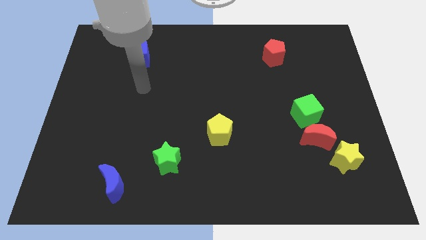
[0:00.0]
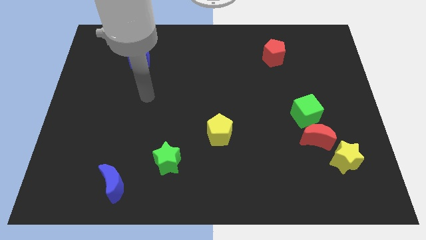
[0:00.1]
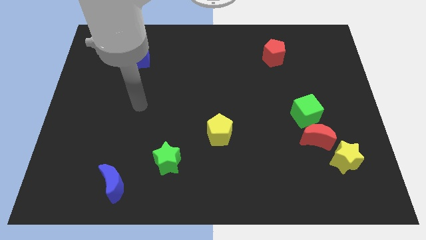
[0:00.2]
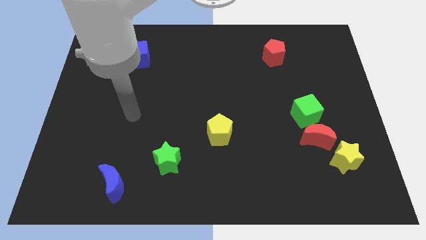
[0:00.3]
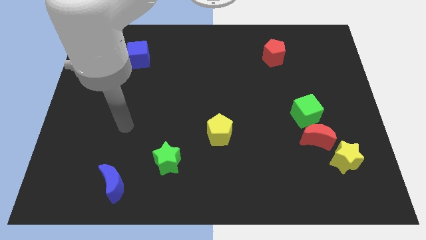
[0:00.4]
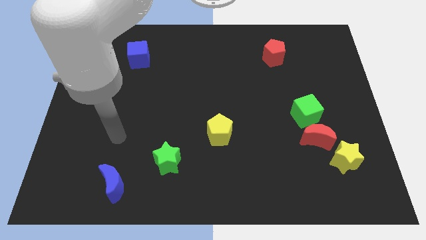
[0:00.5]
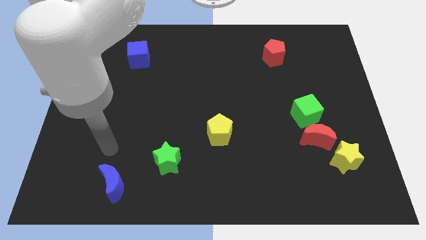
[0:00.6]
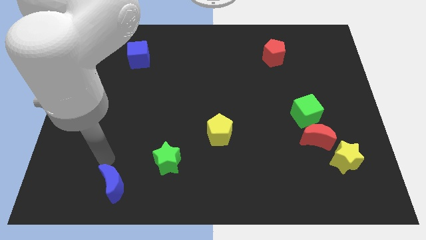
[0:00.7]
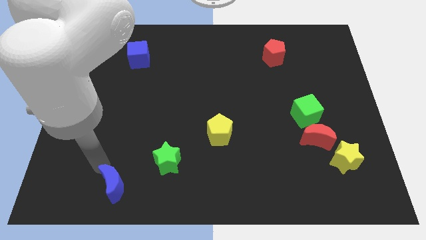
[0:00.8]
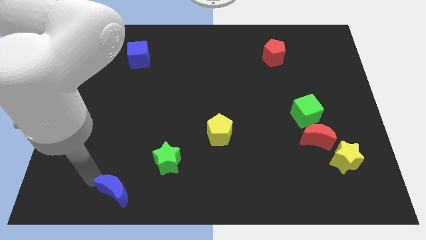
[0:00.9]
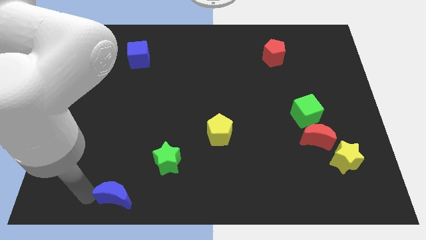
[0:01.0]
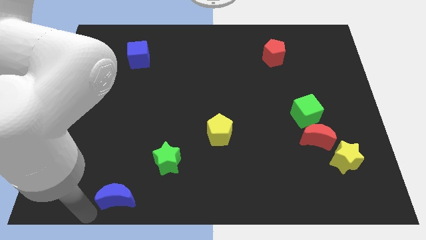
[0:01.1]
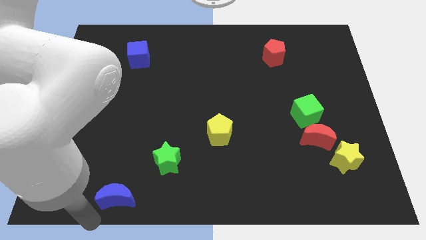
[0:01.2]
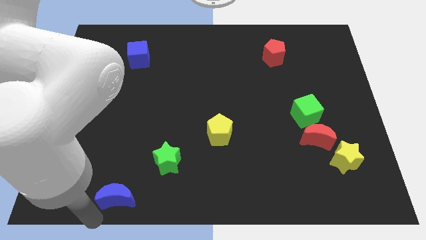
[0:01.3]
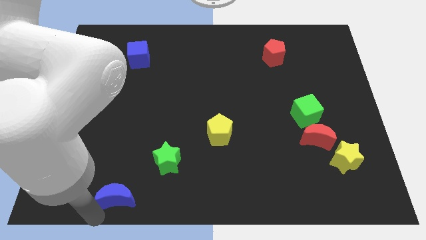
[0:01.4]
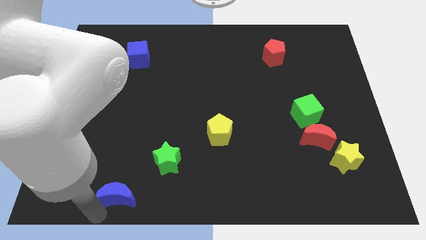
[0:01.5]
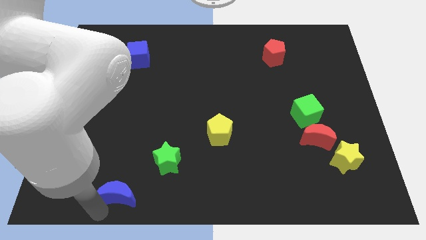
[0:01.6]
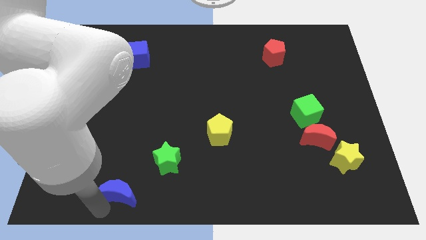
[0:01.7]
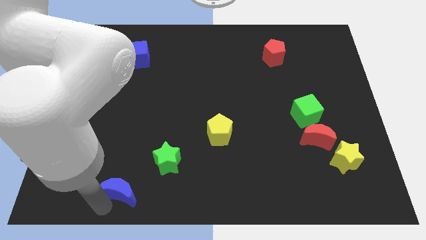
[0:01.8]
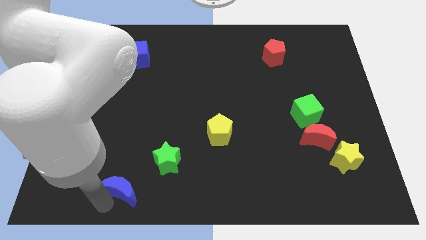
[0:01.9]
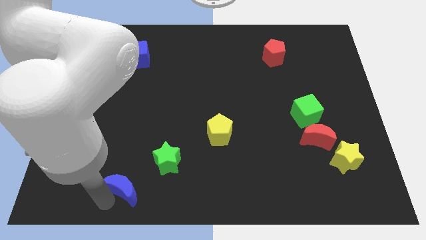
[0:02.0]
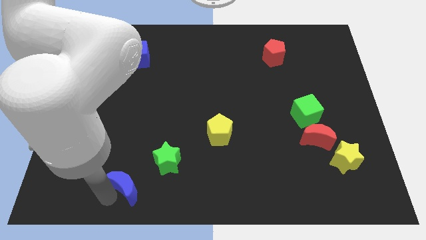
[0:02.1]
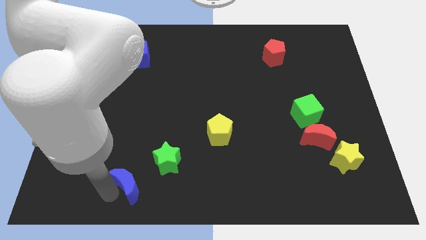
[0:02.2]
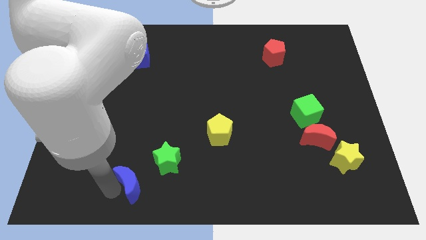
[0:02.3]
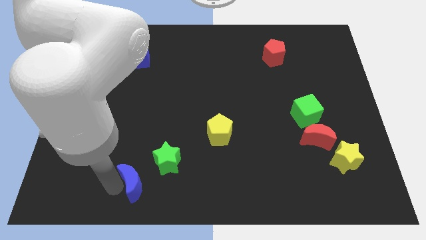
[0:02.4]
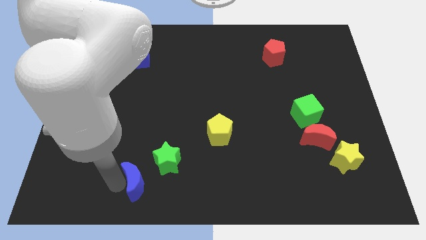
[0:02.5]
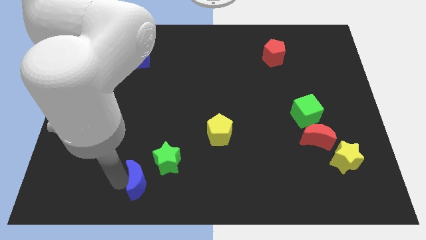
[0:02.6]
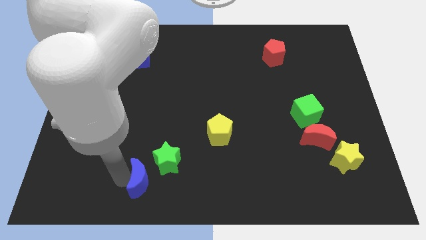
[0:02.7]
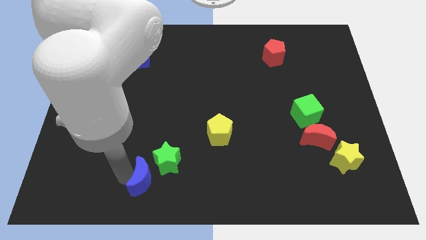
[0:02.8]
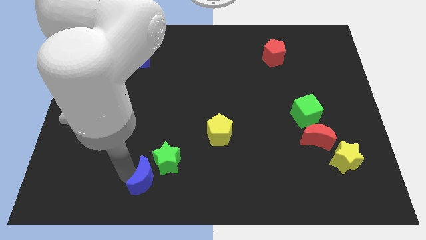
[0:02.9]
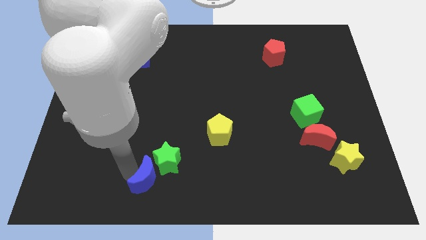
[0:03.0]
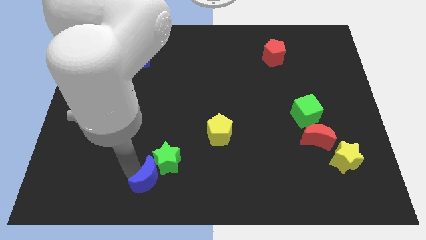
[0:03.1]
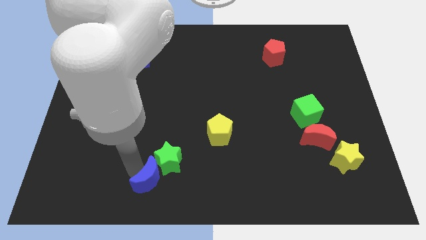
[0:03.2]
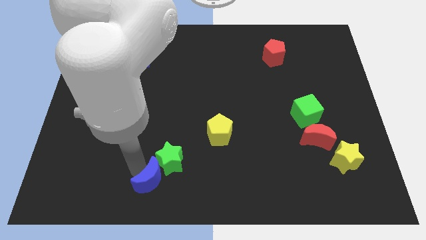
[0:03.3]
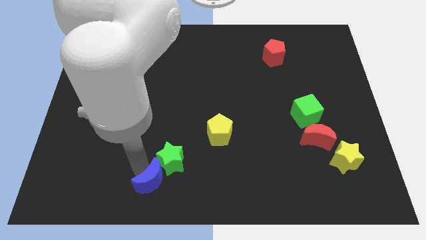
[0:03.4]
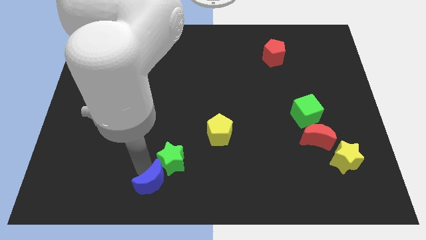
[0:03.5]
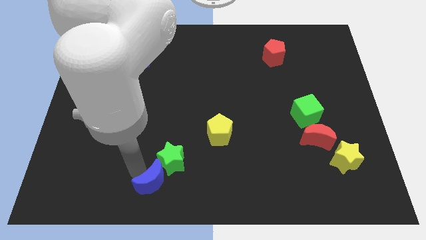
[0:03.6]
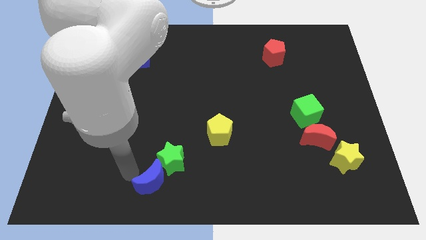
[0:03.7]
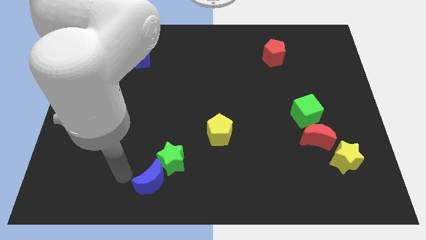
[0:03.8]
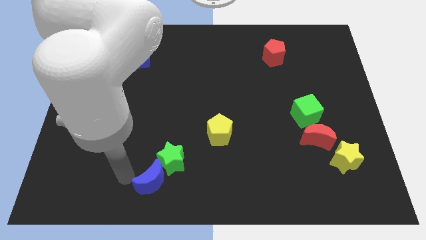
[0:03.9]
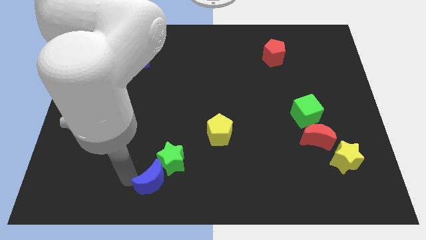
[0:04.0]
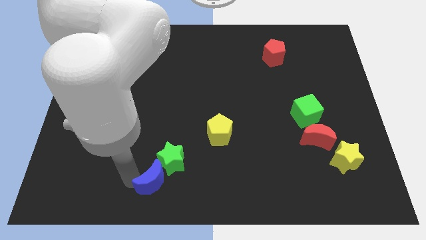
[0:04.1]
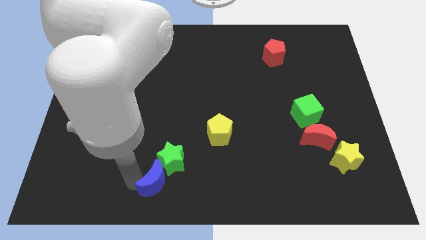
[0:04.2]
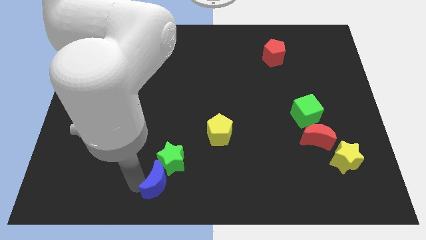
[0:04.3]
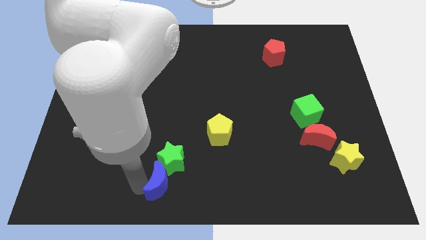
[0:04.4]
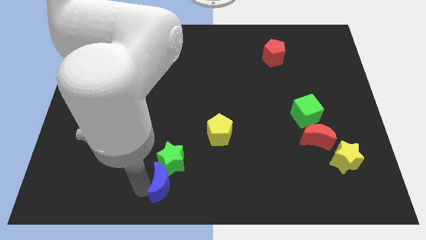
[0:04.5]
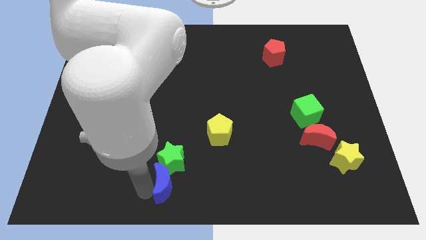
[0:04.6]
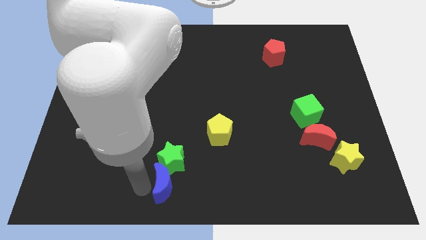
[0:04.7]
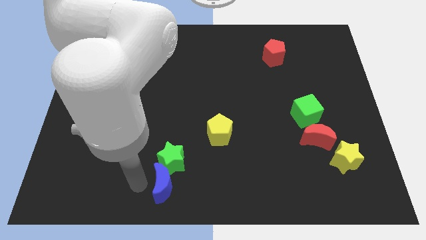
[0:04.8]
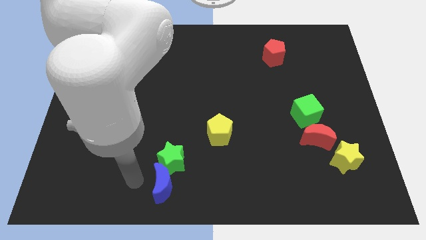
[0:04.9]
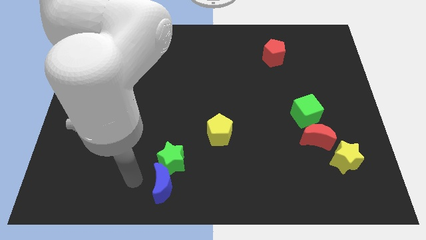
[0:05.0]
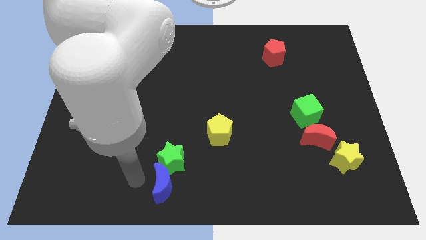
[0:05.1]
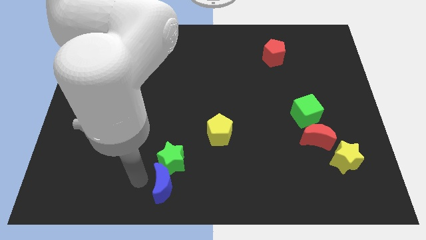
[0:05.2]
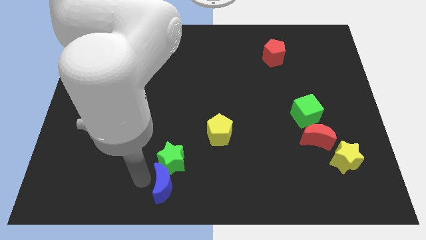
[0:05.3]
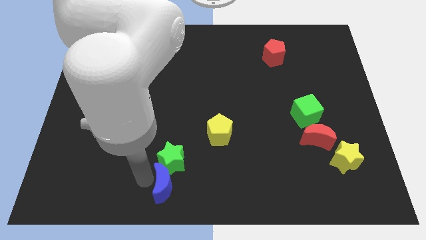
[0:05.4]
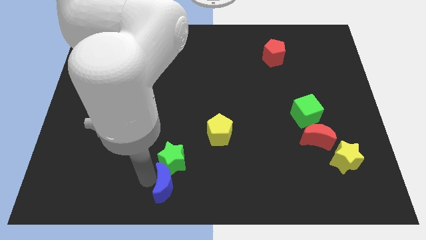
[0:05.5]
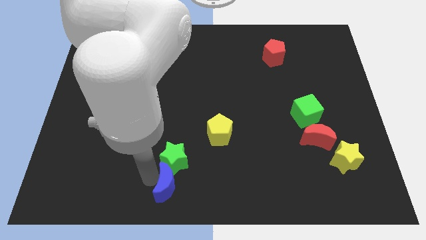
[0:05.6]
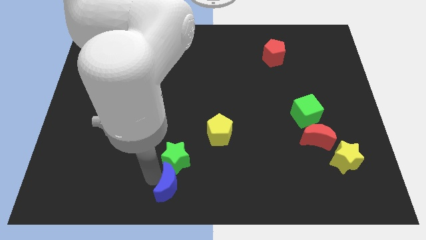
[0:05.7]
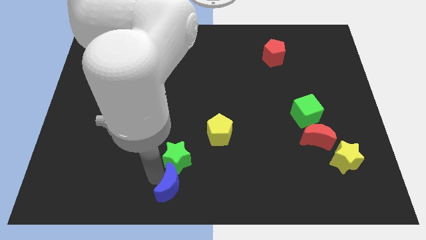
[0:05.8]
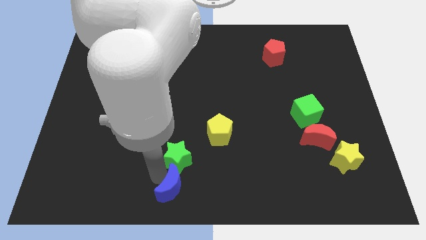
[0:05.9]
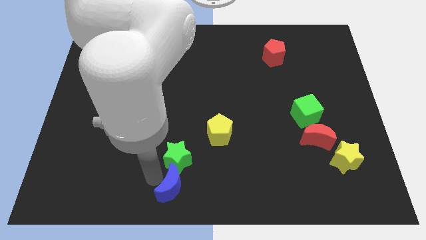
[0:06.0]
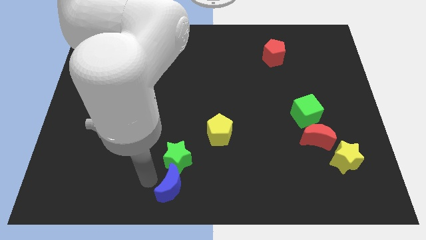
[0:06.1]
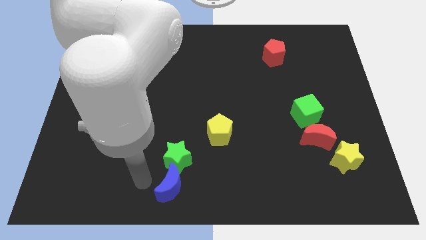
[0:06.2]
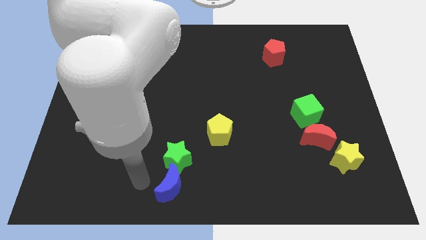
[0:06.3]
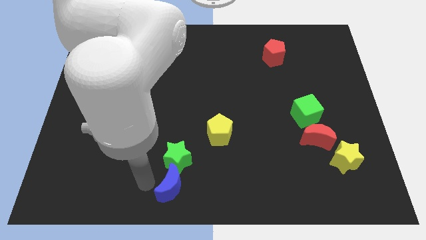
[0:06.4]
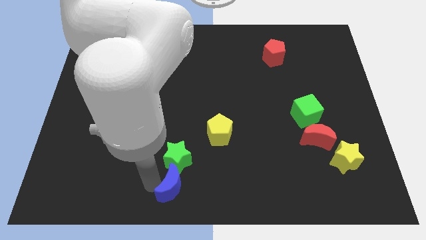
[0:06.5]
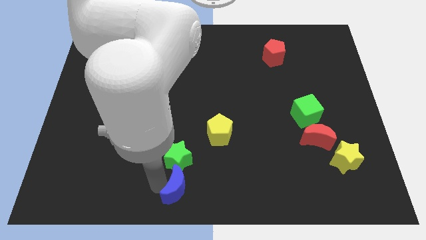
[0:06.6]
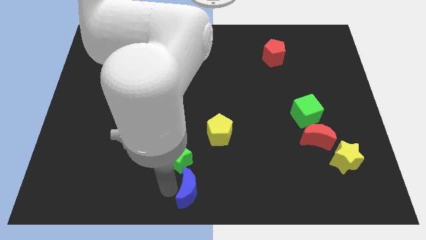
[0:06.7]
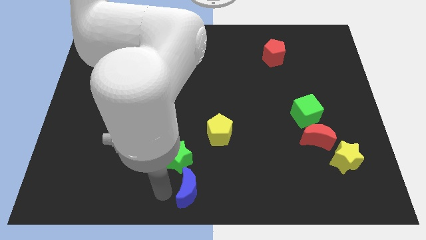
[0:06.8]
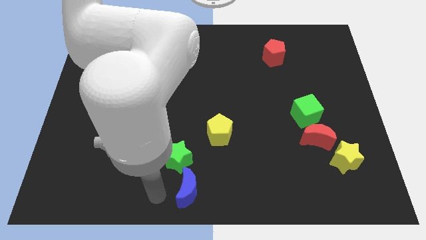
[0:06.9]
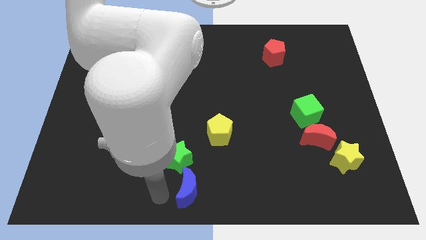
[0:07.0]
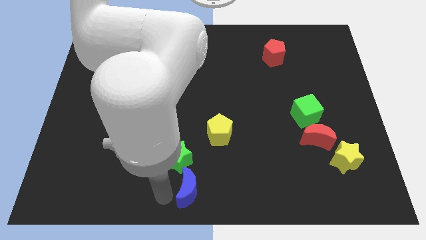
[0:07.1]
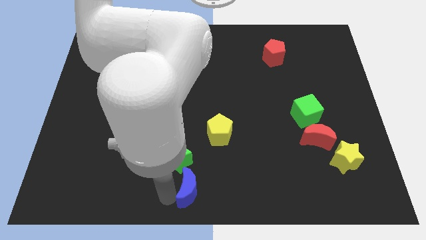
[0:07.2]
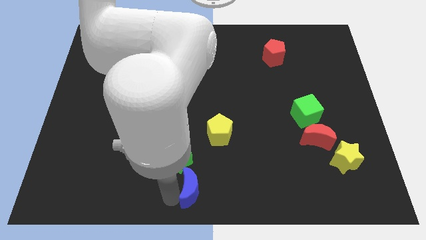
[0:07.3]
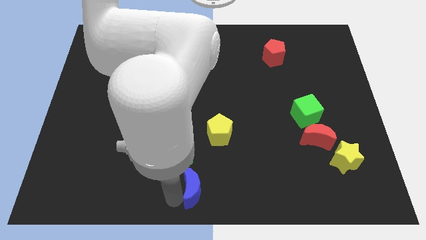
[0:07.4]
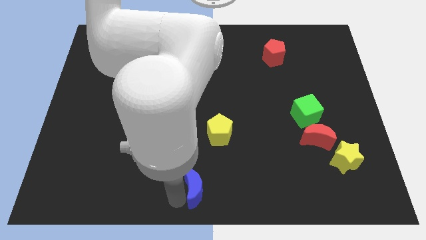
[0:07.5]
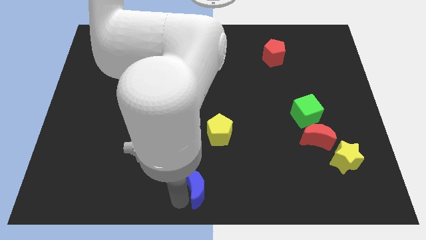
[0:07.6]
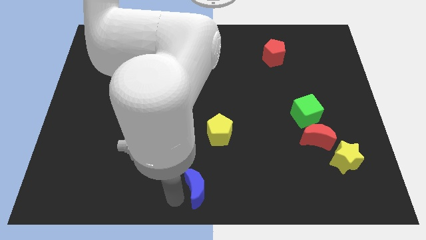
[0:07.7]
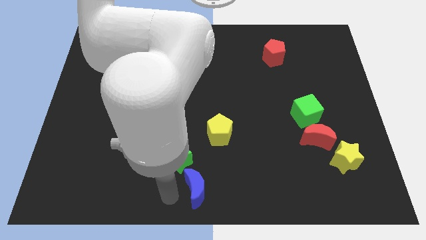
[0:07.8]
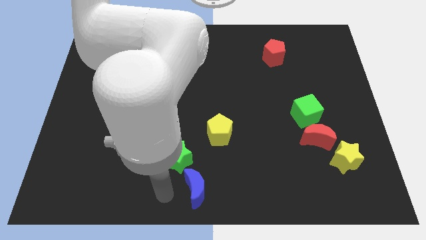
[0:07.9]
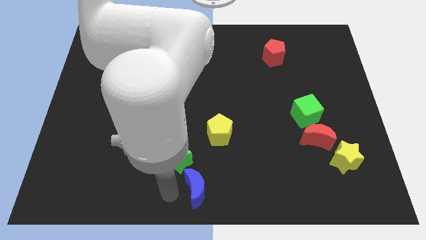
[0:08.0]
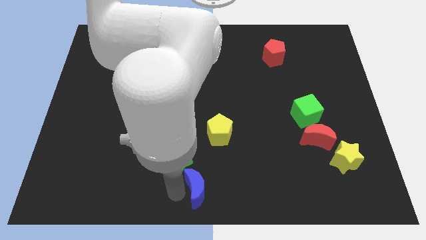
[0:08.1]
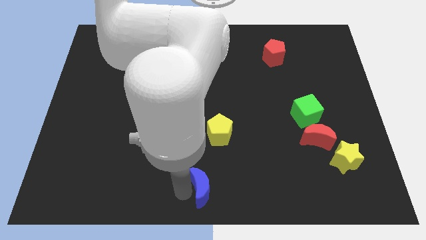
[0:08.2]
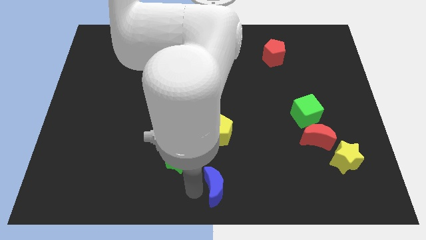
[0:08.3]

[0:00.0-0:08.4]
slide the blue moon to the right
